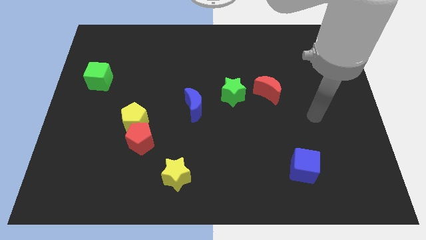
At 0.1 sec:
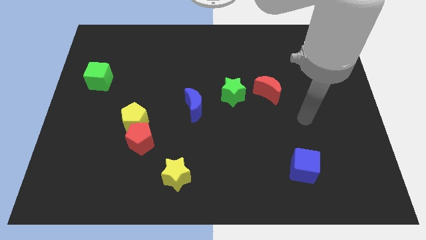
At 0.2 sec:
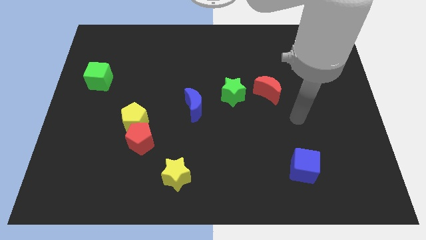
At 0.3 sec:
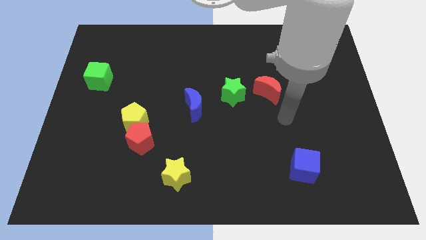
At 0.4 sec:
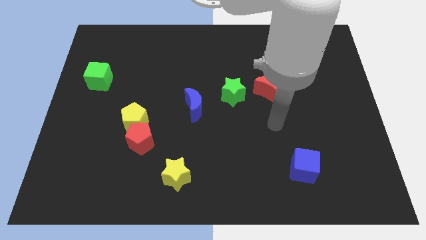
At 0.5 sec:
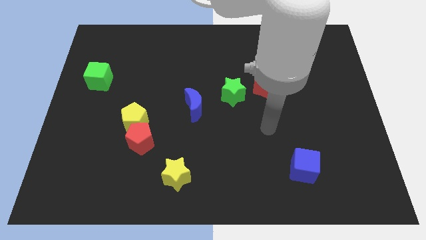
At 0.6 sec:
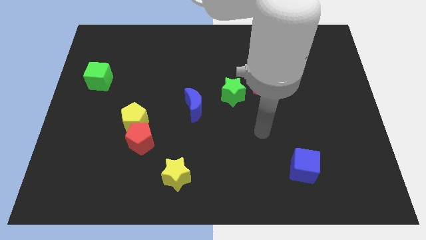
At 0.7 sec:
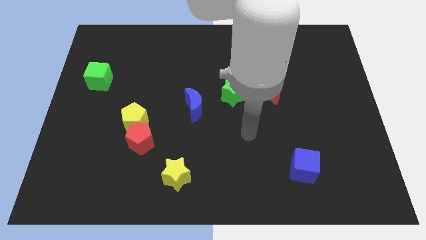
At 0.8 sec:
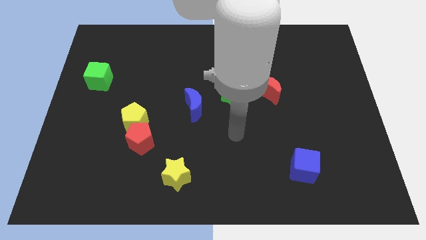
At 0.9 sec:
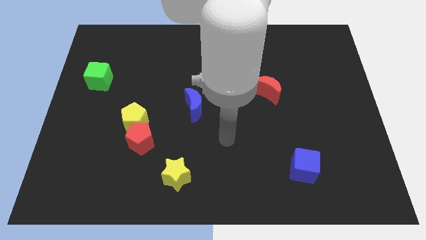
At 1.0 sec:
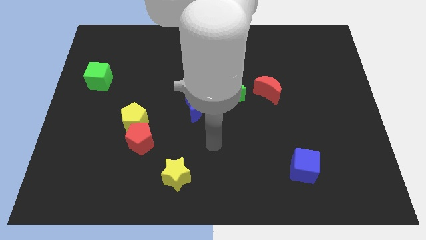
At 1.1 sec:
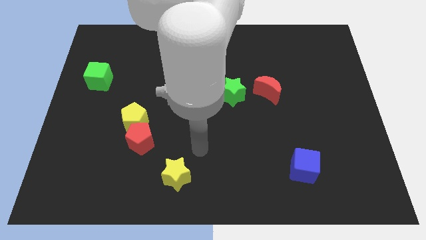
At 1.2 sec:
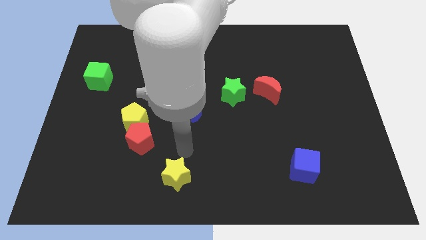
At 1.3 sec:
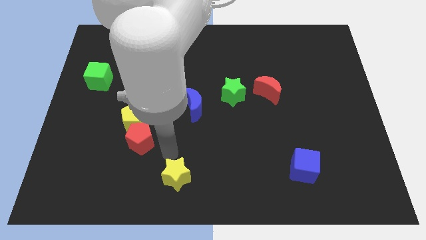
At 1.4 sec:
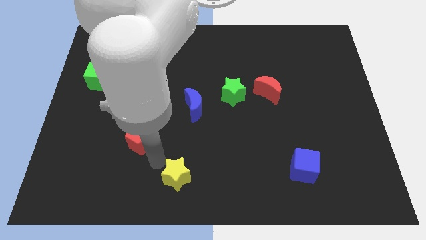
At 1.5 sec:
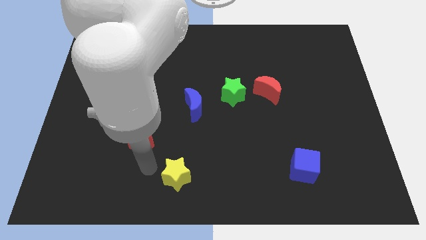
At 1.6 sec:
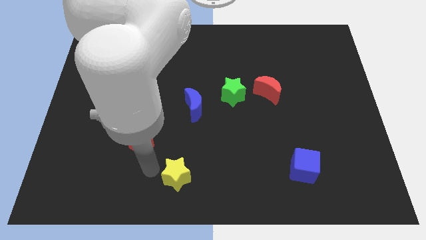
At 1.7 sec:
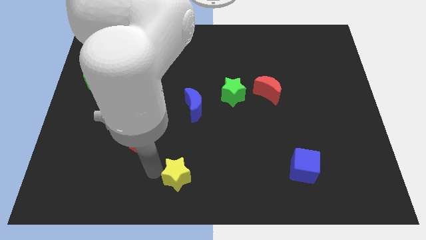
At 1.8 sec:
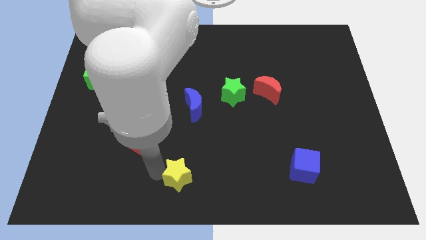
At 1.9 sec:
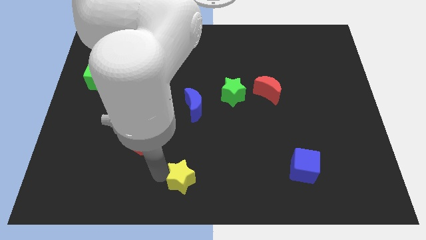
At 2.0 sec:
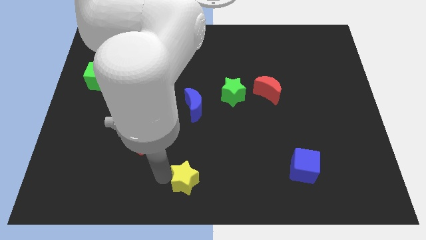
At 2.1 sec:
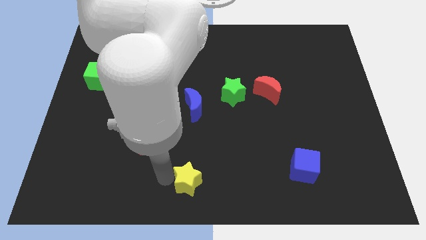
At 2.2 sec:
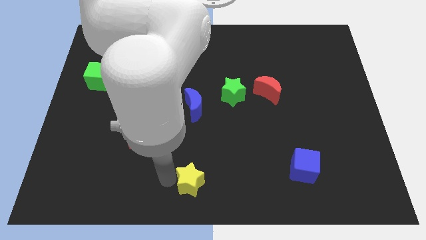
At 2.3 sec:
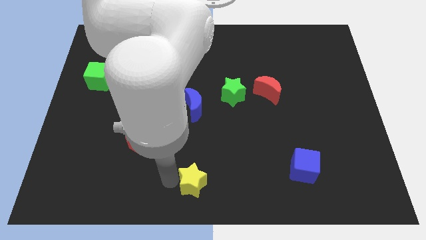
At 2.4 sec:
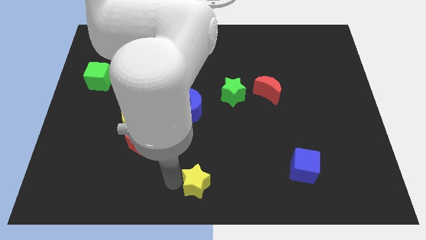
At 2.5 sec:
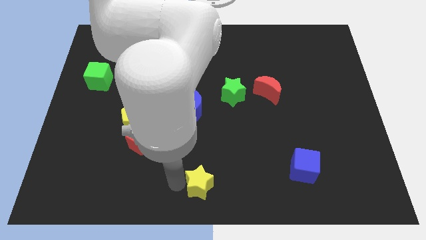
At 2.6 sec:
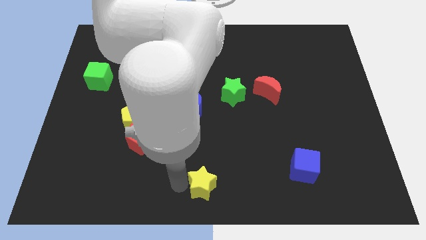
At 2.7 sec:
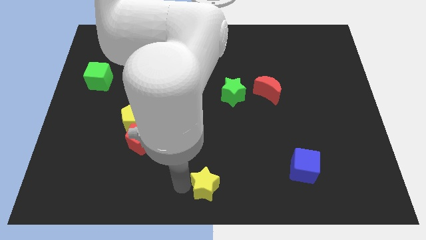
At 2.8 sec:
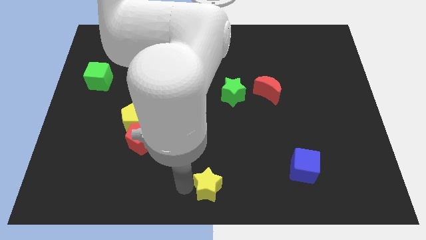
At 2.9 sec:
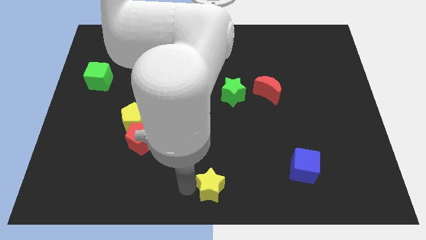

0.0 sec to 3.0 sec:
push the yellow star to the right slightly

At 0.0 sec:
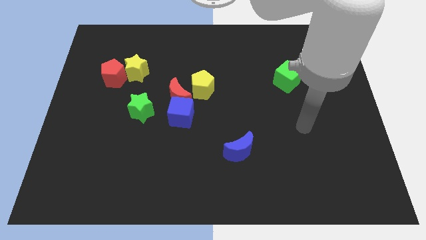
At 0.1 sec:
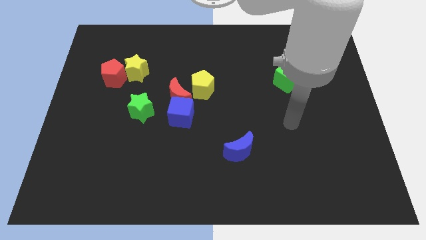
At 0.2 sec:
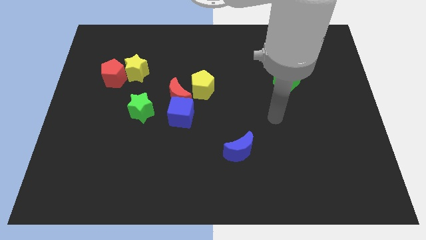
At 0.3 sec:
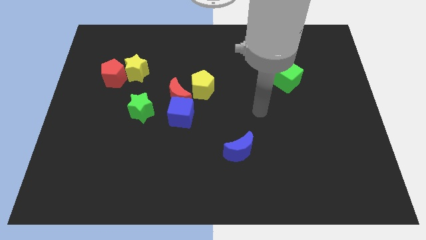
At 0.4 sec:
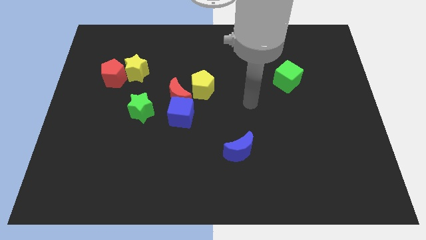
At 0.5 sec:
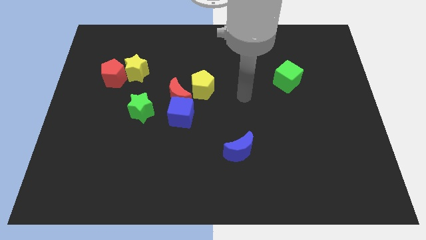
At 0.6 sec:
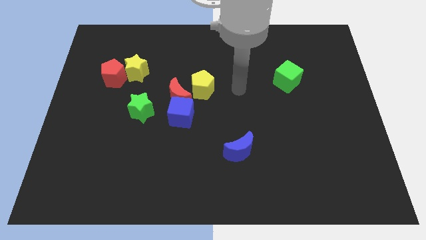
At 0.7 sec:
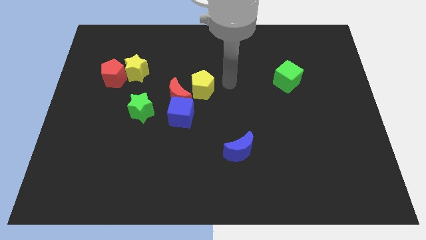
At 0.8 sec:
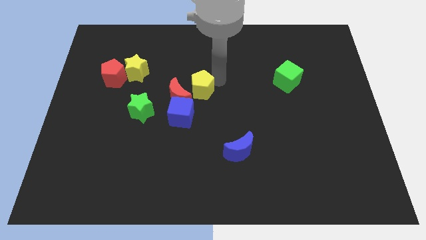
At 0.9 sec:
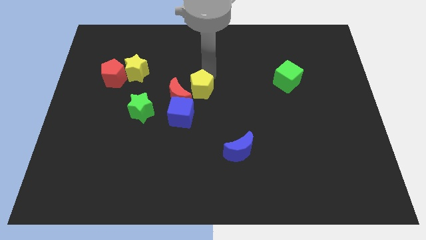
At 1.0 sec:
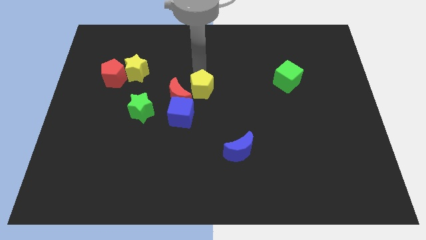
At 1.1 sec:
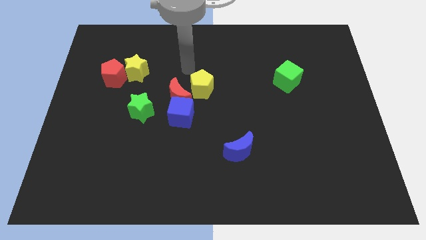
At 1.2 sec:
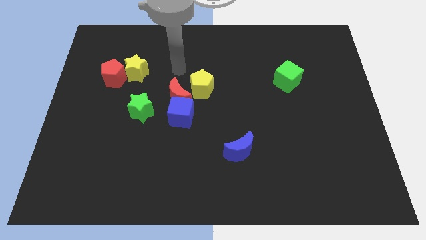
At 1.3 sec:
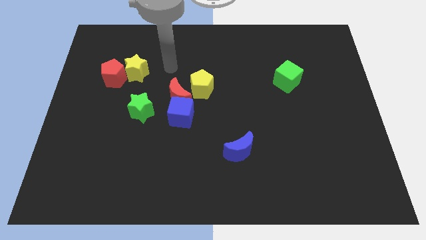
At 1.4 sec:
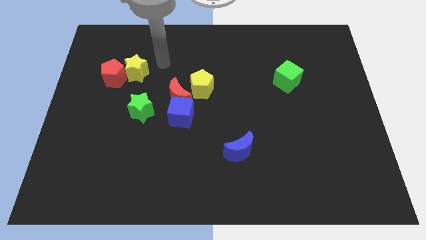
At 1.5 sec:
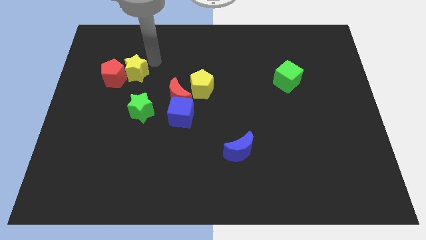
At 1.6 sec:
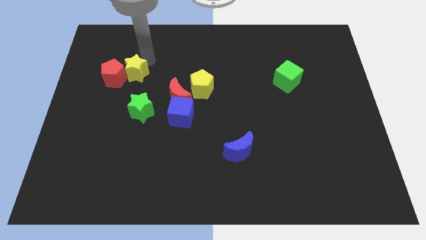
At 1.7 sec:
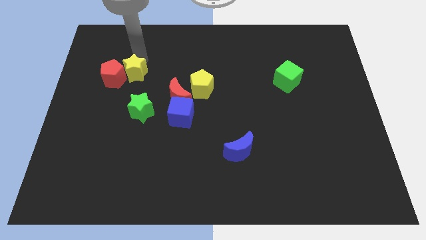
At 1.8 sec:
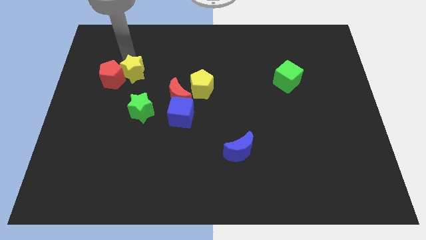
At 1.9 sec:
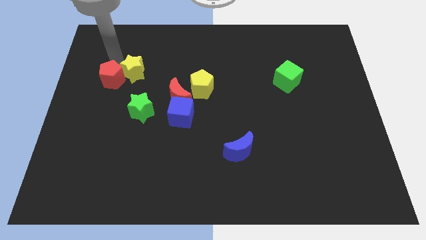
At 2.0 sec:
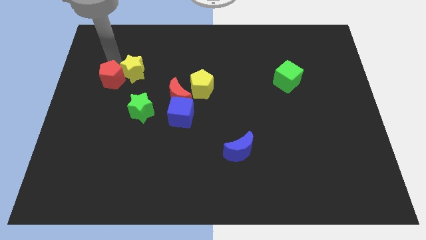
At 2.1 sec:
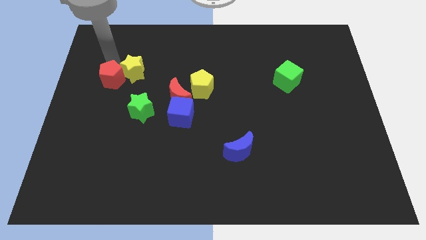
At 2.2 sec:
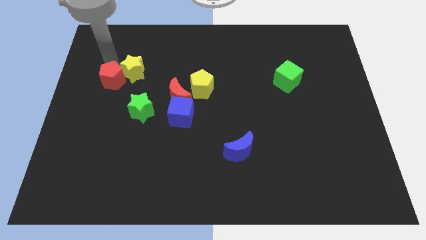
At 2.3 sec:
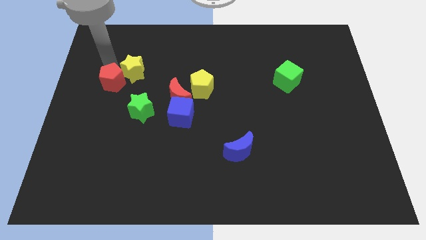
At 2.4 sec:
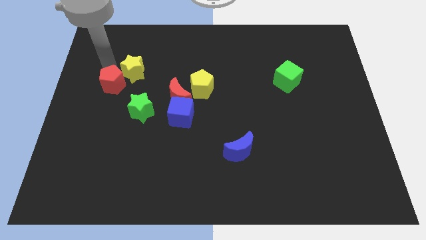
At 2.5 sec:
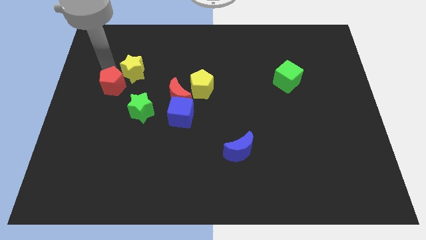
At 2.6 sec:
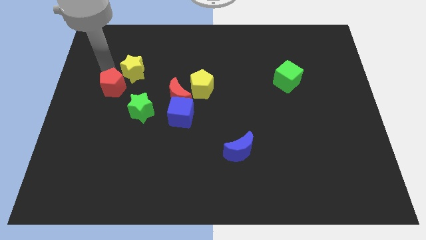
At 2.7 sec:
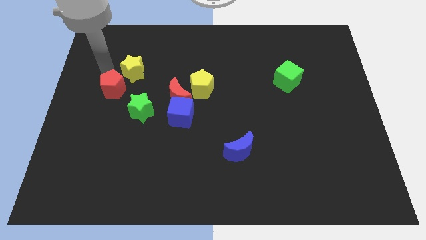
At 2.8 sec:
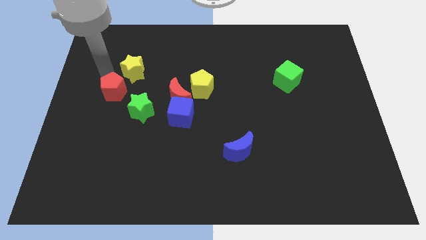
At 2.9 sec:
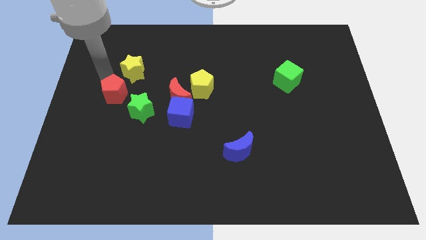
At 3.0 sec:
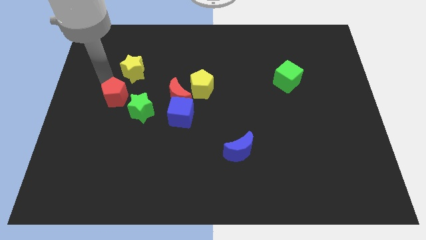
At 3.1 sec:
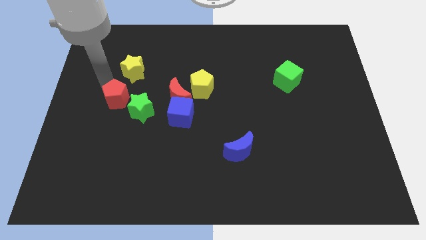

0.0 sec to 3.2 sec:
slightly slide the red pentagon downwards

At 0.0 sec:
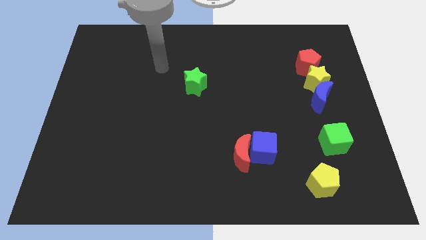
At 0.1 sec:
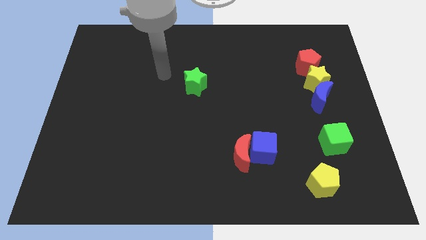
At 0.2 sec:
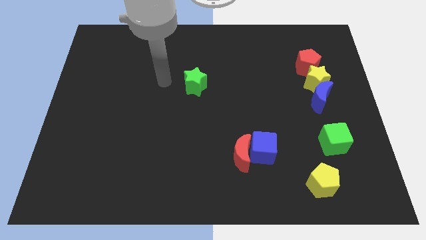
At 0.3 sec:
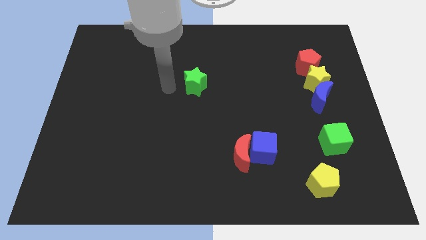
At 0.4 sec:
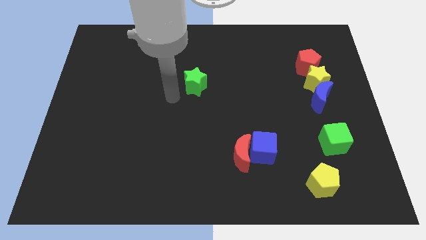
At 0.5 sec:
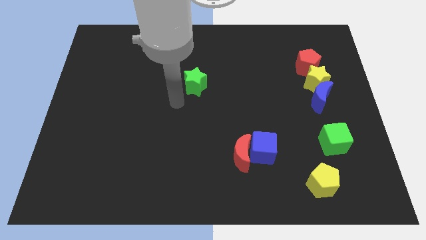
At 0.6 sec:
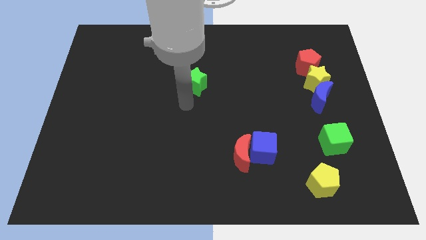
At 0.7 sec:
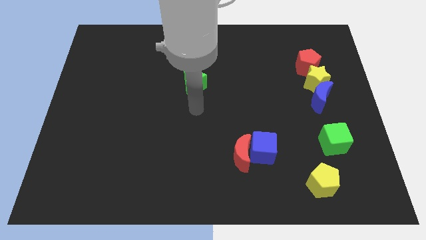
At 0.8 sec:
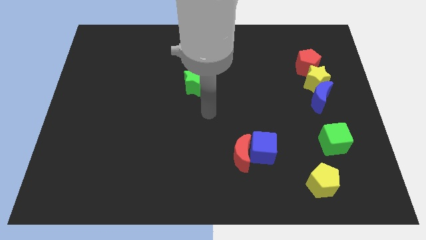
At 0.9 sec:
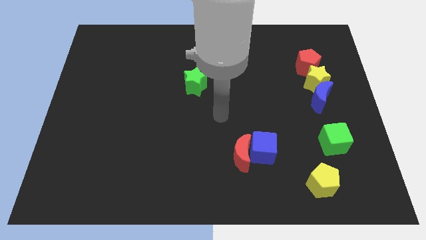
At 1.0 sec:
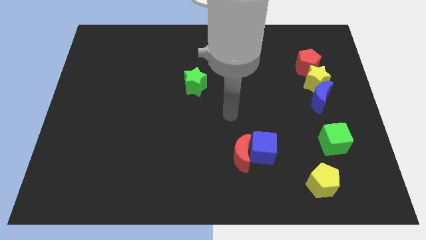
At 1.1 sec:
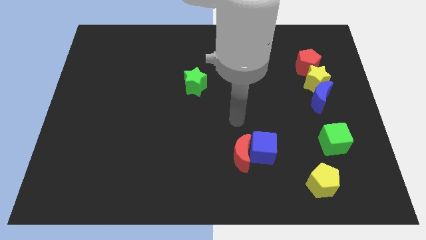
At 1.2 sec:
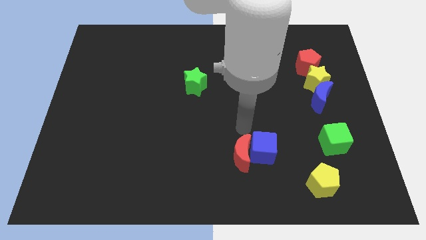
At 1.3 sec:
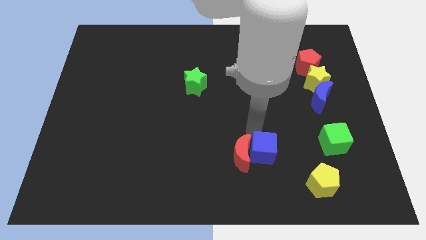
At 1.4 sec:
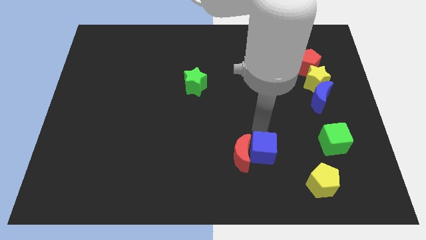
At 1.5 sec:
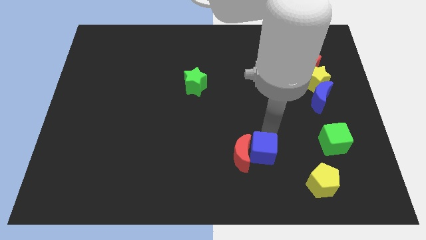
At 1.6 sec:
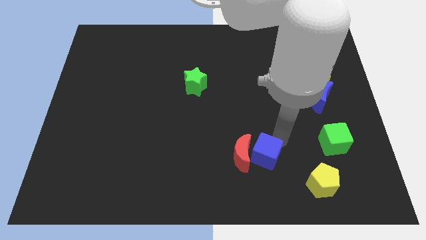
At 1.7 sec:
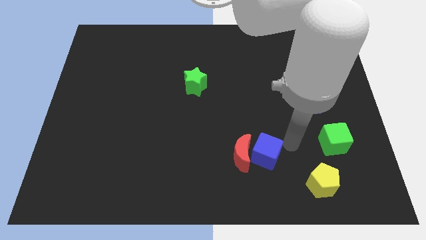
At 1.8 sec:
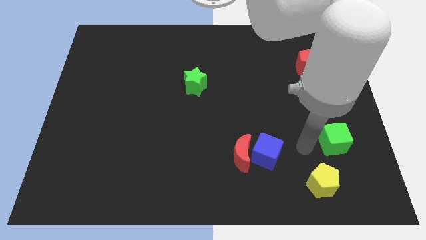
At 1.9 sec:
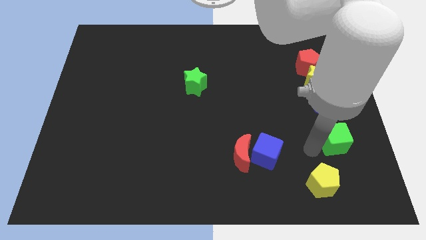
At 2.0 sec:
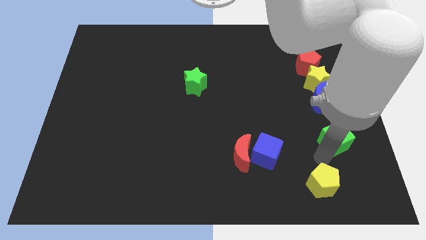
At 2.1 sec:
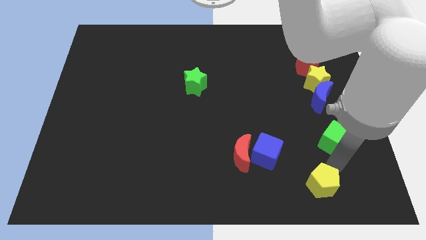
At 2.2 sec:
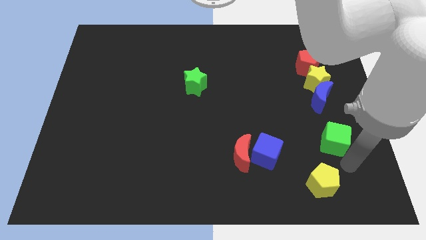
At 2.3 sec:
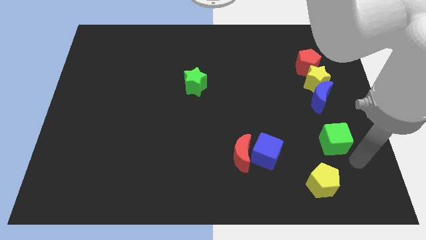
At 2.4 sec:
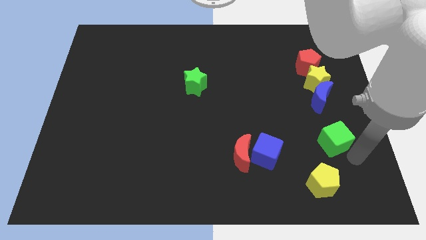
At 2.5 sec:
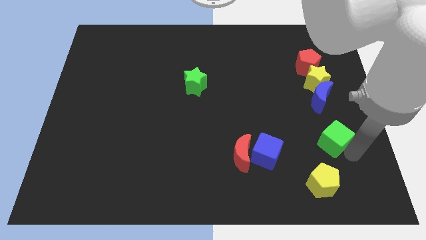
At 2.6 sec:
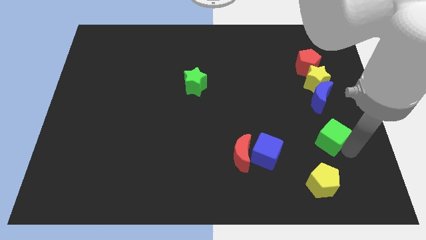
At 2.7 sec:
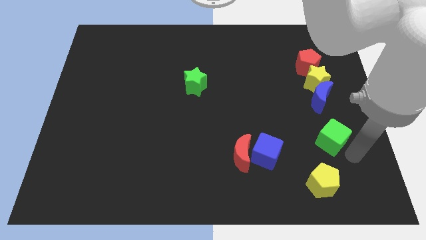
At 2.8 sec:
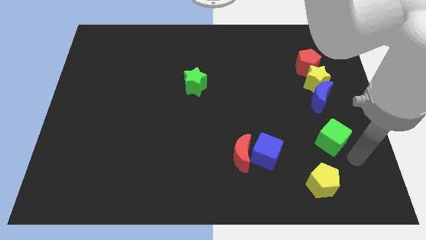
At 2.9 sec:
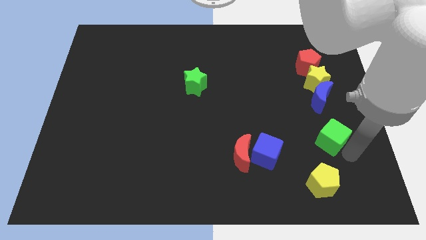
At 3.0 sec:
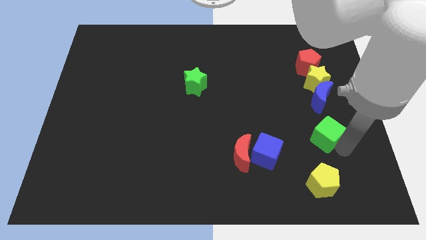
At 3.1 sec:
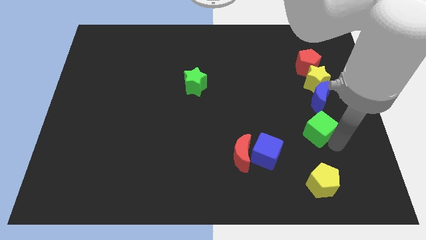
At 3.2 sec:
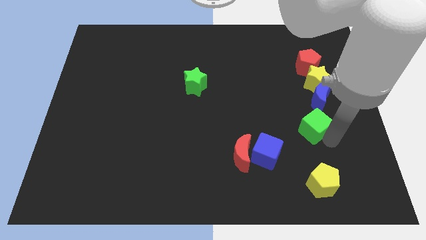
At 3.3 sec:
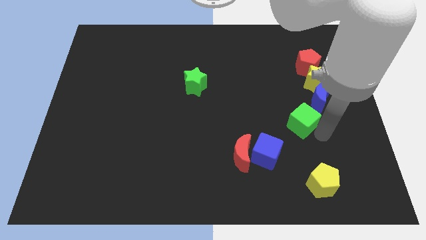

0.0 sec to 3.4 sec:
slightly slide the green cube diagonally upwards and to the left
